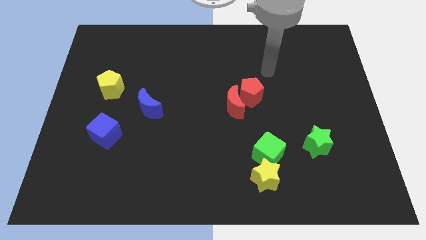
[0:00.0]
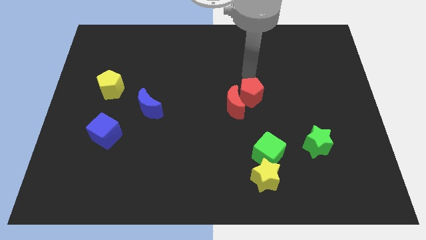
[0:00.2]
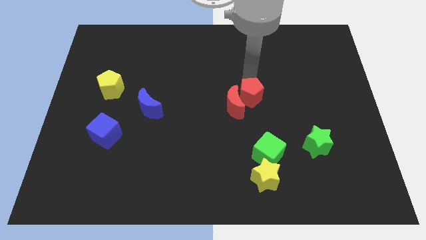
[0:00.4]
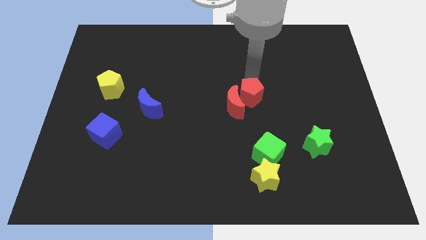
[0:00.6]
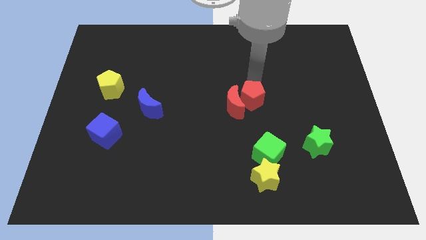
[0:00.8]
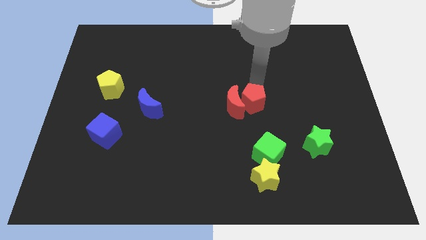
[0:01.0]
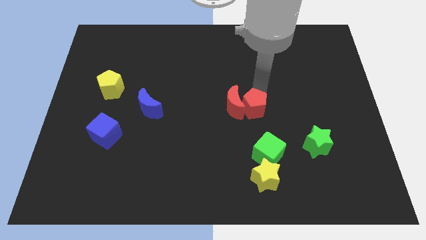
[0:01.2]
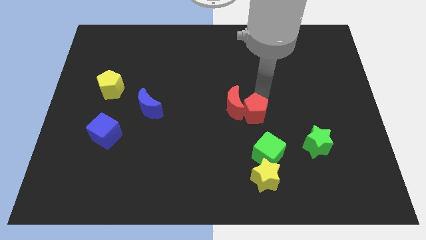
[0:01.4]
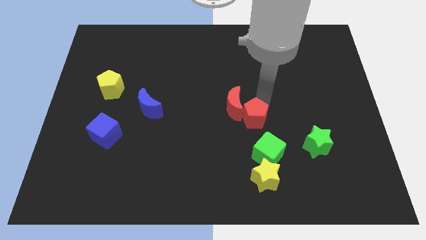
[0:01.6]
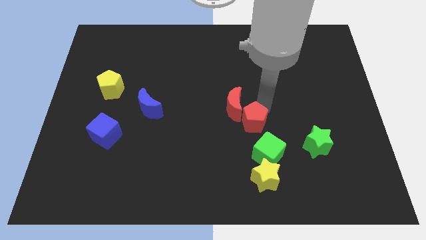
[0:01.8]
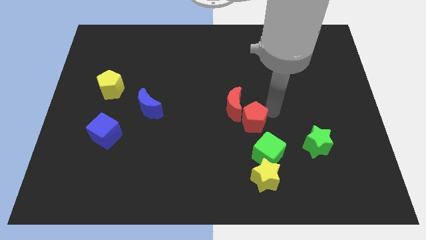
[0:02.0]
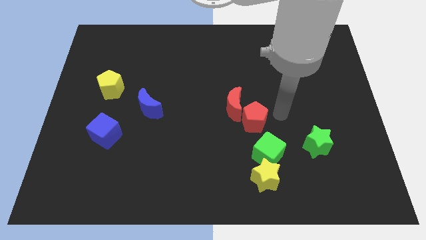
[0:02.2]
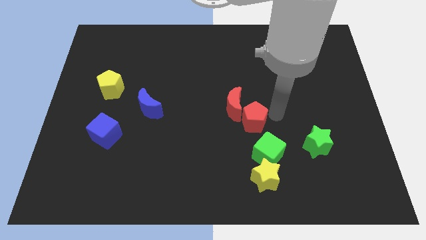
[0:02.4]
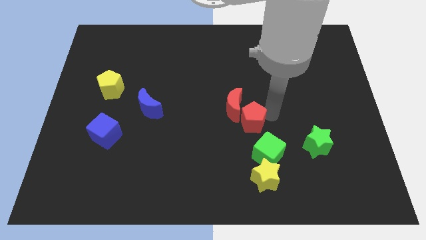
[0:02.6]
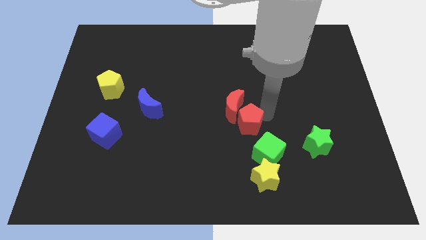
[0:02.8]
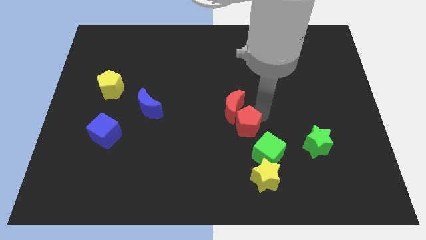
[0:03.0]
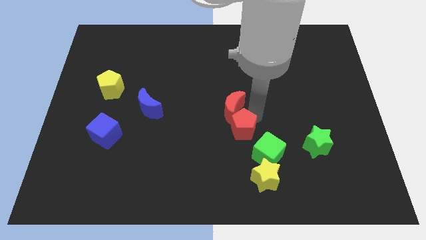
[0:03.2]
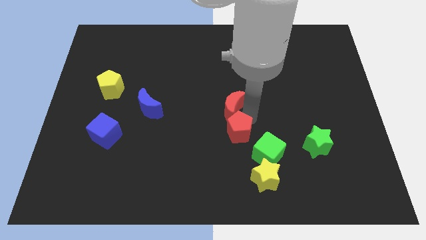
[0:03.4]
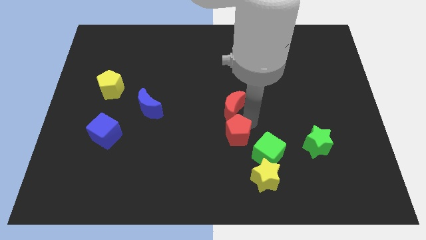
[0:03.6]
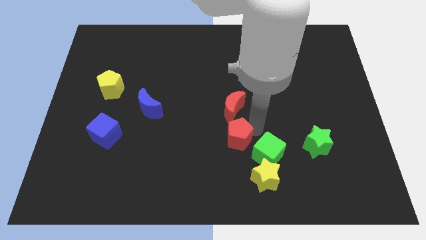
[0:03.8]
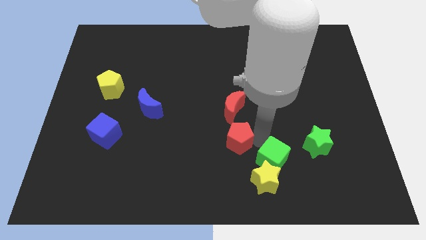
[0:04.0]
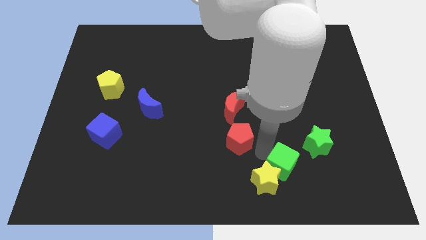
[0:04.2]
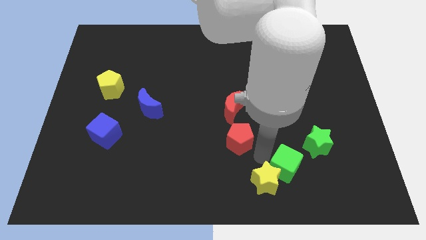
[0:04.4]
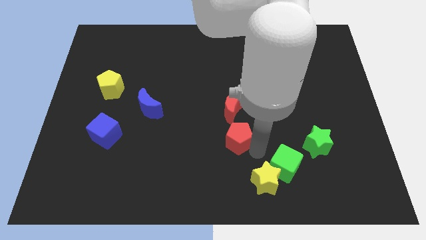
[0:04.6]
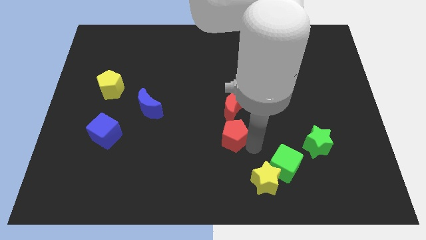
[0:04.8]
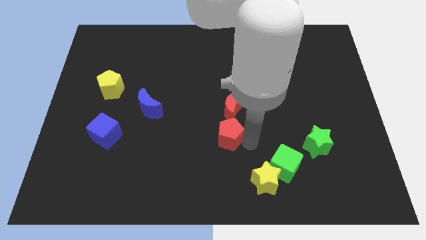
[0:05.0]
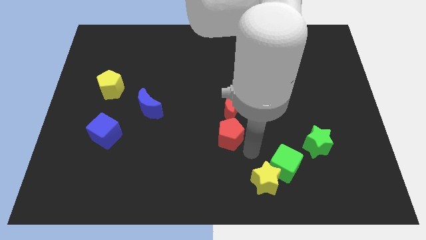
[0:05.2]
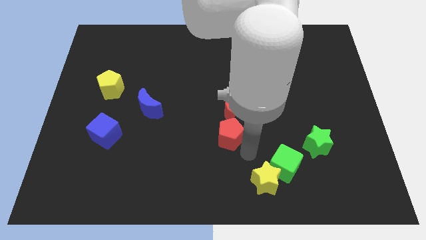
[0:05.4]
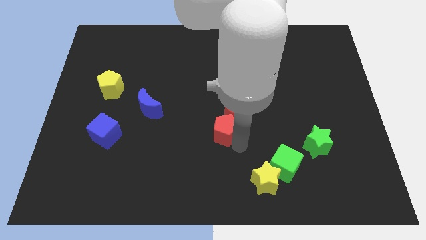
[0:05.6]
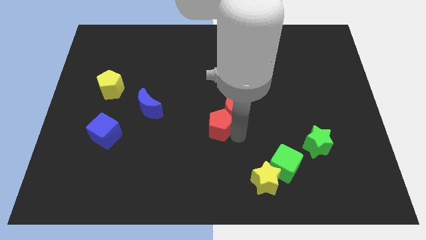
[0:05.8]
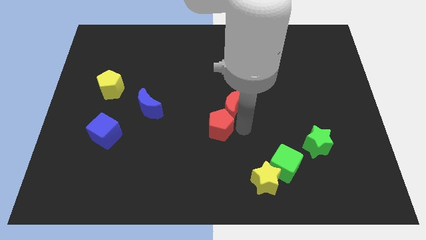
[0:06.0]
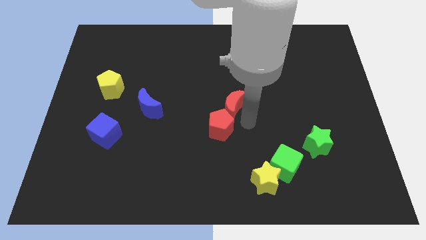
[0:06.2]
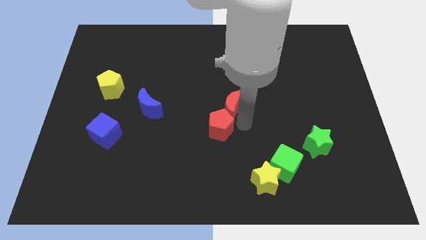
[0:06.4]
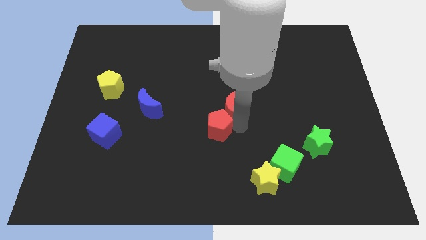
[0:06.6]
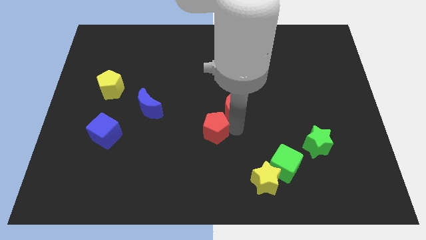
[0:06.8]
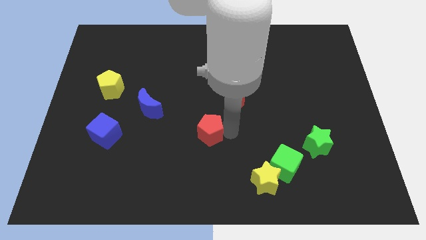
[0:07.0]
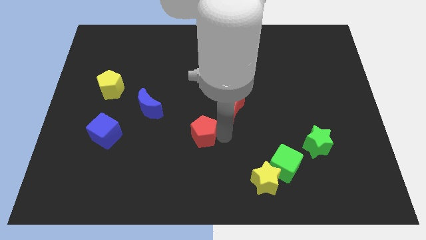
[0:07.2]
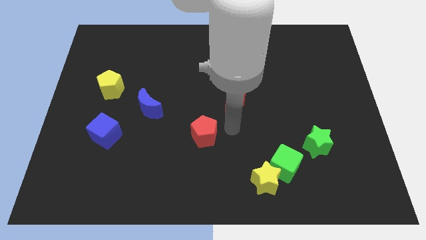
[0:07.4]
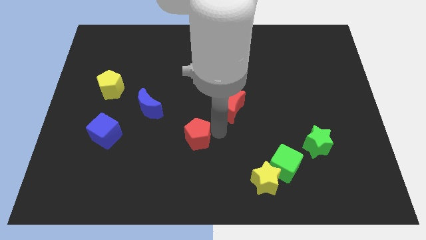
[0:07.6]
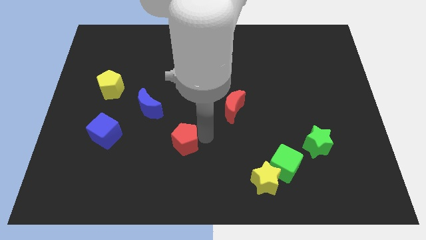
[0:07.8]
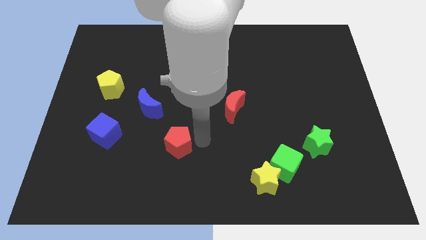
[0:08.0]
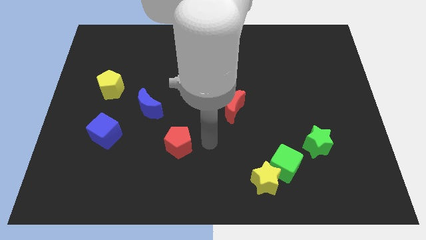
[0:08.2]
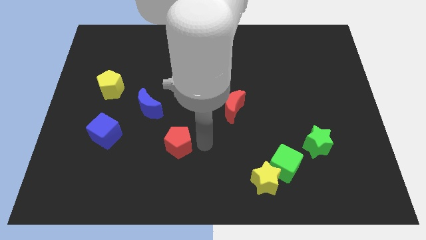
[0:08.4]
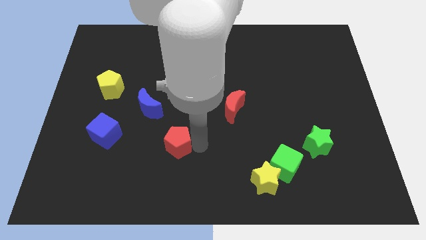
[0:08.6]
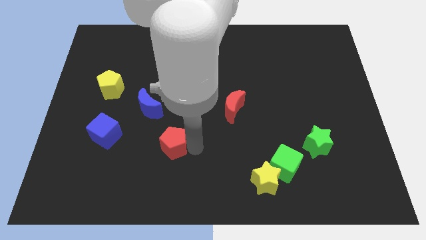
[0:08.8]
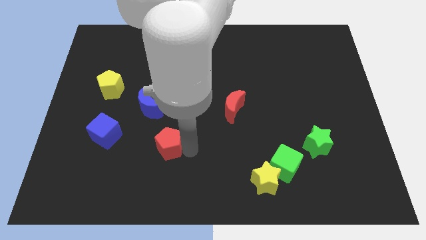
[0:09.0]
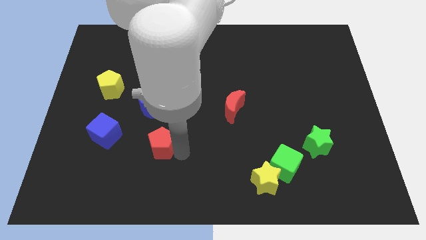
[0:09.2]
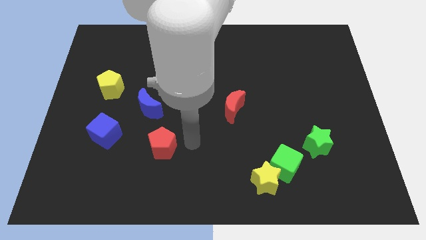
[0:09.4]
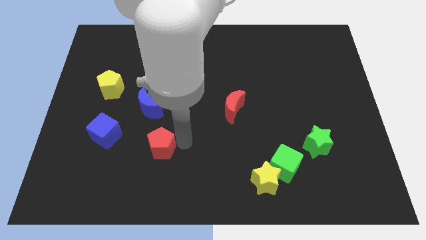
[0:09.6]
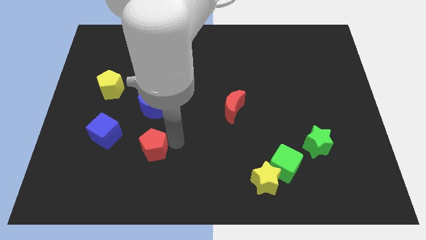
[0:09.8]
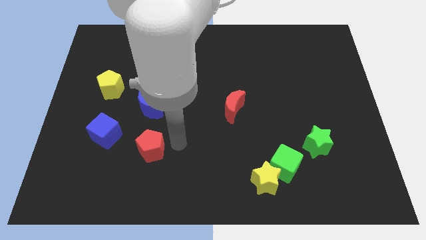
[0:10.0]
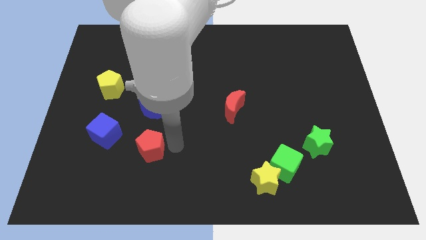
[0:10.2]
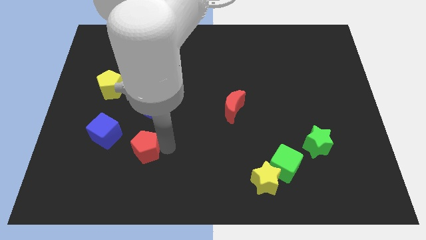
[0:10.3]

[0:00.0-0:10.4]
push the red pentagon diagonally down and to the right of the blue cube

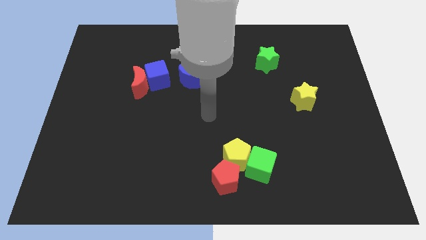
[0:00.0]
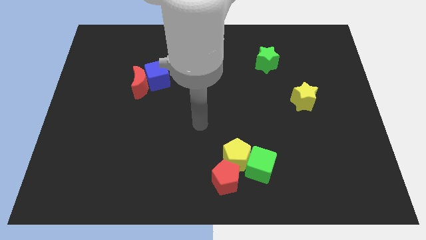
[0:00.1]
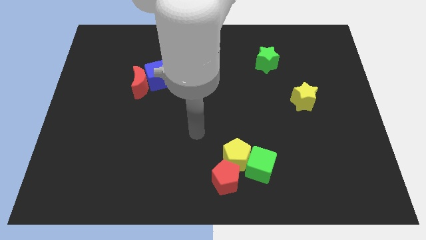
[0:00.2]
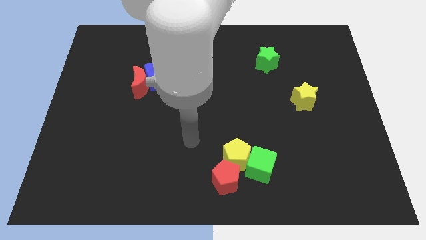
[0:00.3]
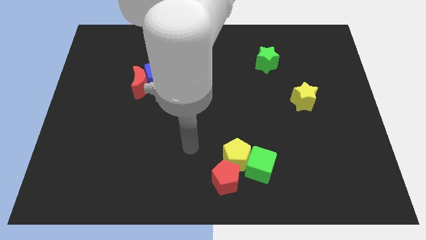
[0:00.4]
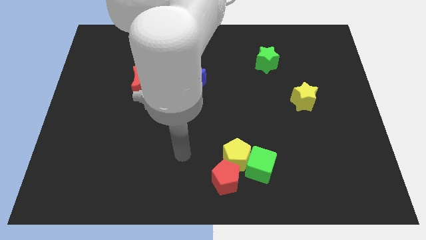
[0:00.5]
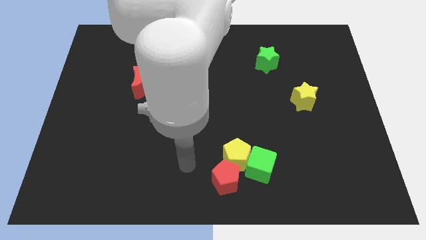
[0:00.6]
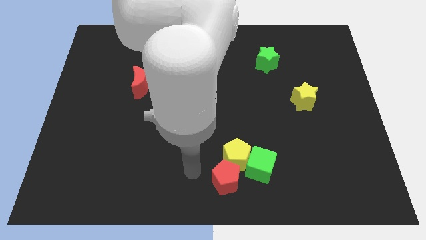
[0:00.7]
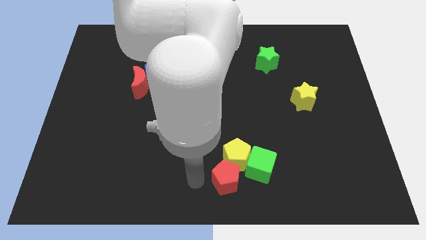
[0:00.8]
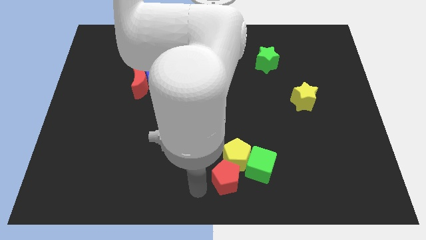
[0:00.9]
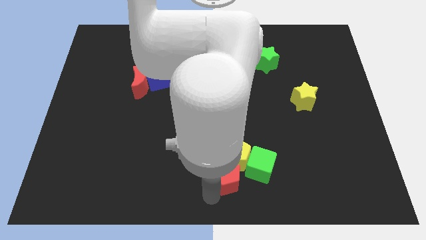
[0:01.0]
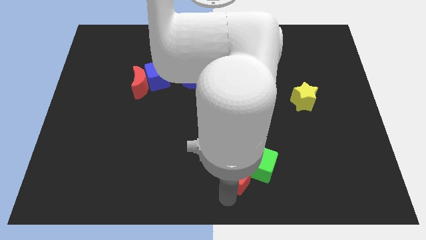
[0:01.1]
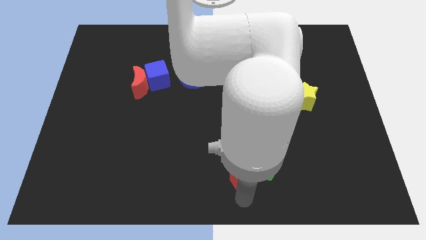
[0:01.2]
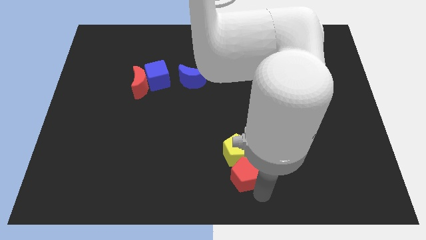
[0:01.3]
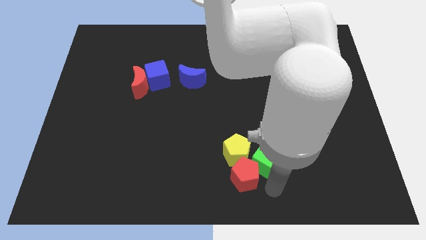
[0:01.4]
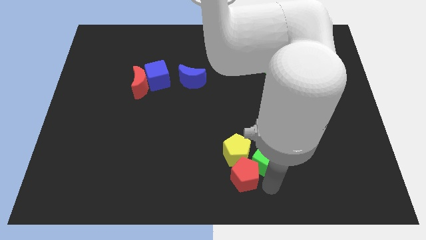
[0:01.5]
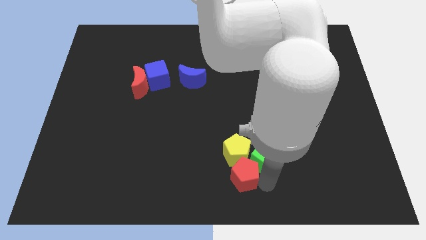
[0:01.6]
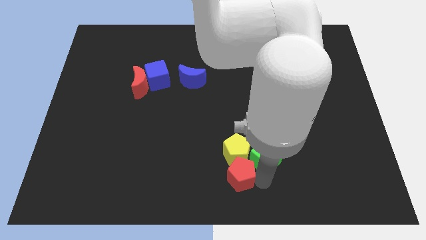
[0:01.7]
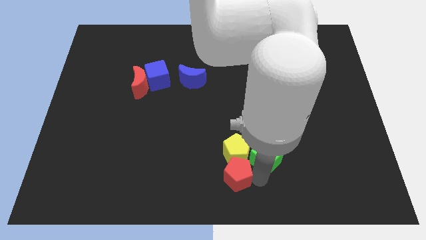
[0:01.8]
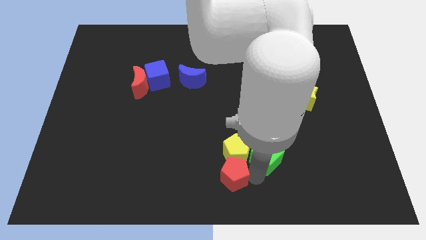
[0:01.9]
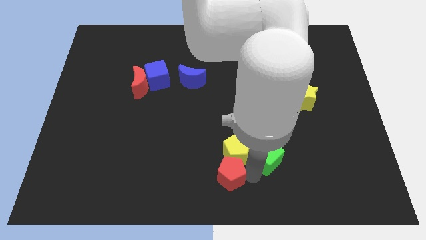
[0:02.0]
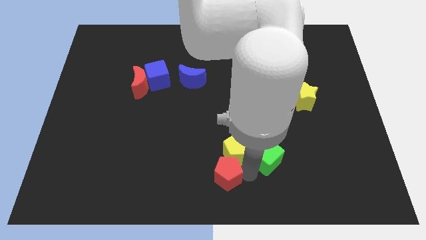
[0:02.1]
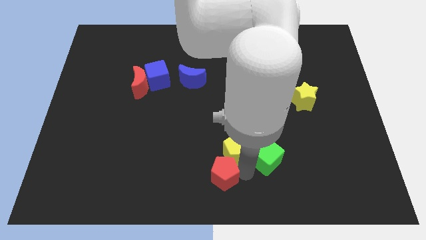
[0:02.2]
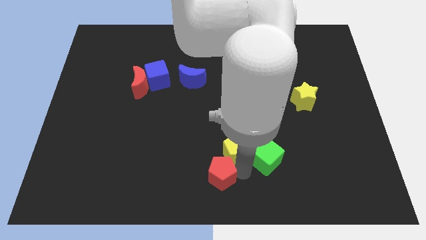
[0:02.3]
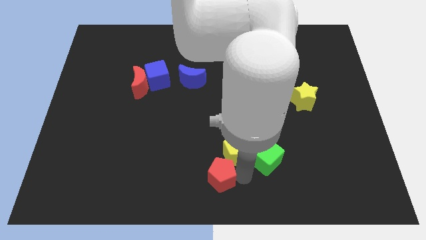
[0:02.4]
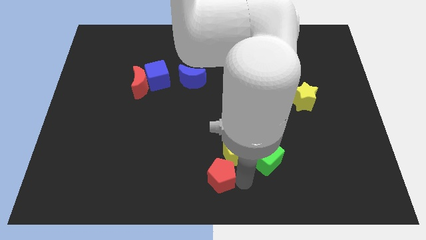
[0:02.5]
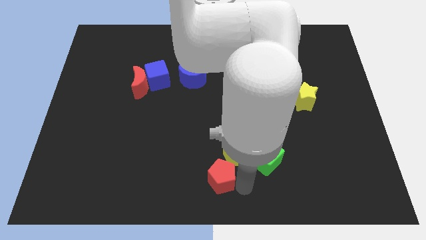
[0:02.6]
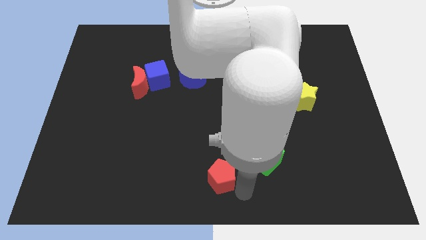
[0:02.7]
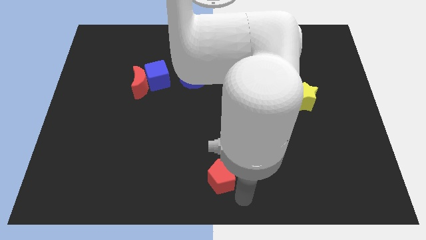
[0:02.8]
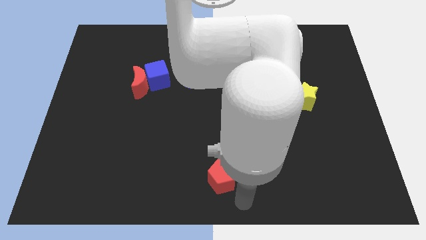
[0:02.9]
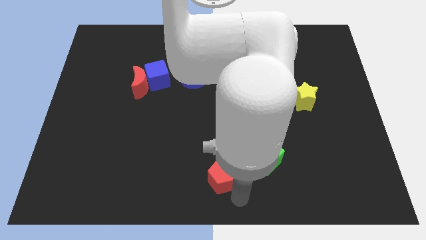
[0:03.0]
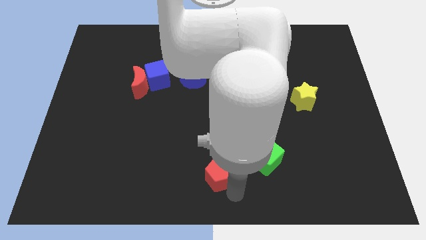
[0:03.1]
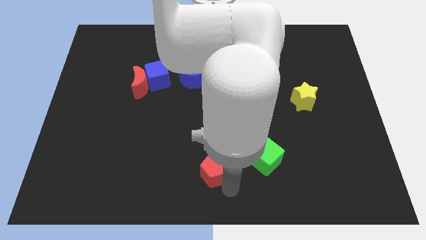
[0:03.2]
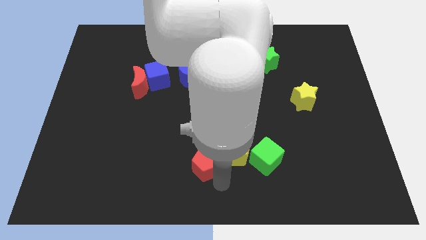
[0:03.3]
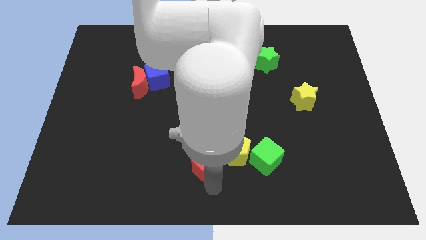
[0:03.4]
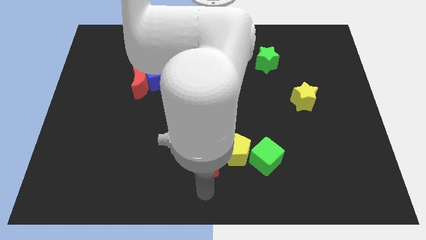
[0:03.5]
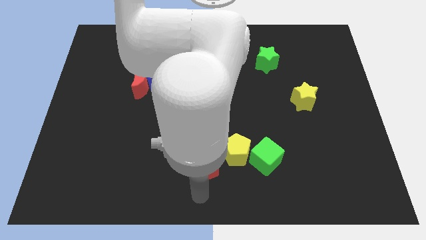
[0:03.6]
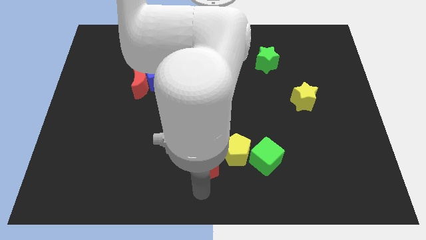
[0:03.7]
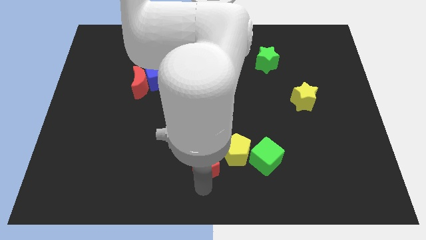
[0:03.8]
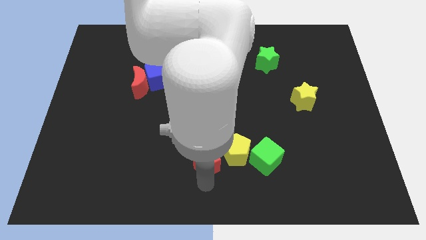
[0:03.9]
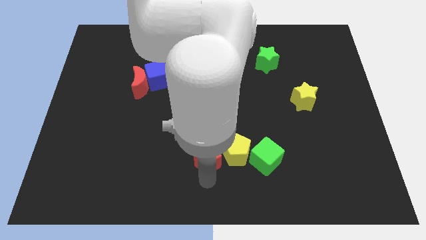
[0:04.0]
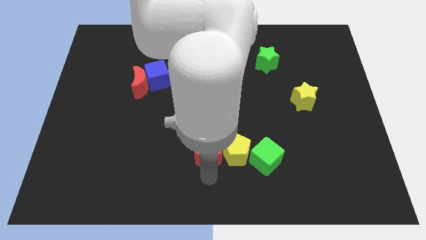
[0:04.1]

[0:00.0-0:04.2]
put the red pentagon to the top left of the yellow pentagon
